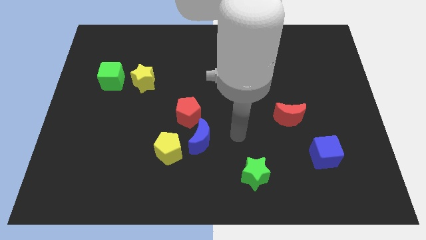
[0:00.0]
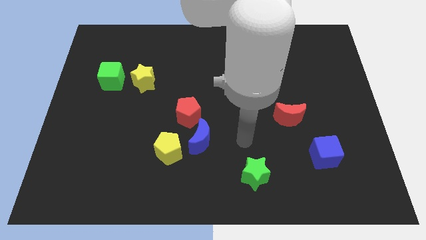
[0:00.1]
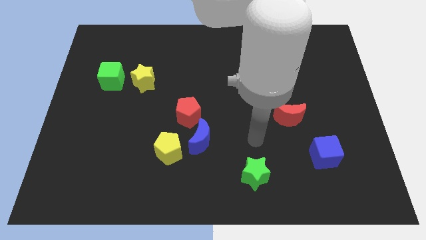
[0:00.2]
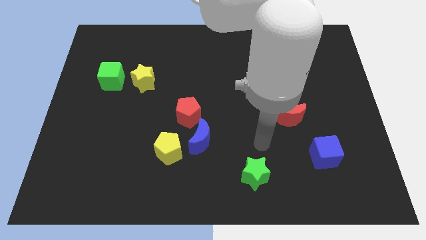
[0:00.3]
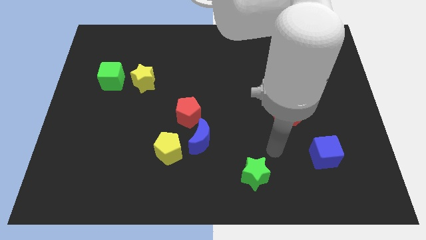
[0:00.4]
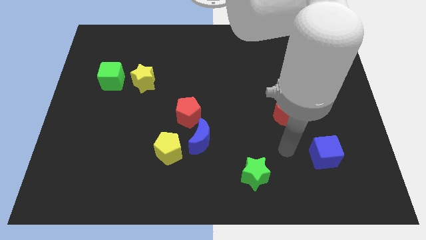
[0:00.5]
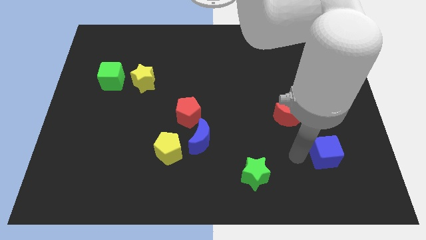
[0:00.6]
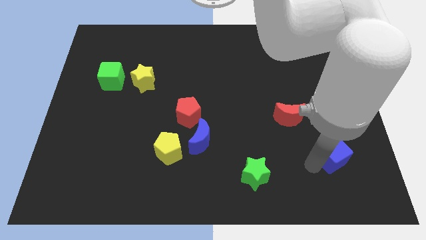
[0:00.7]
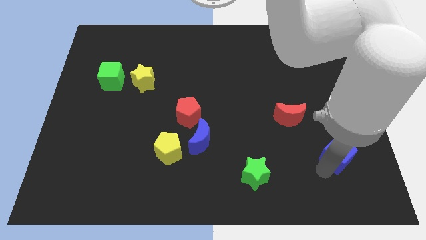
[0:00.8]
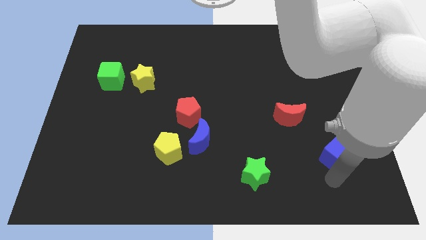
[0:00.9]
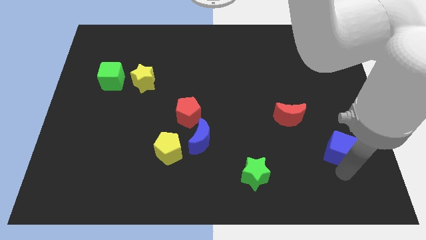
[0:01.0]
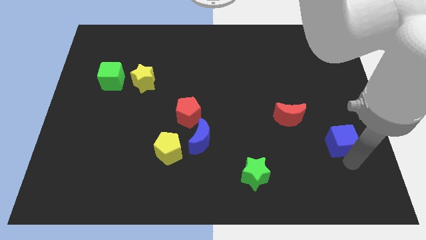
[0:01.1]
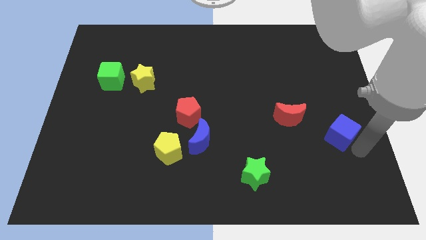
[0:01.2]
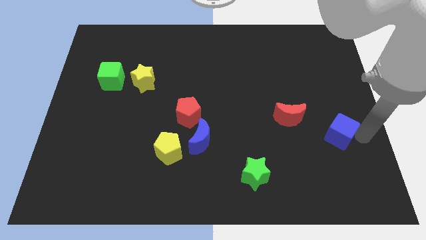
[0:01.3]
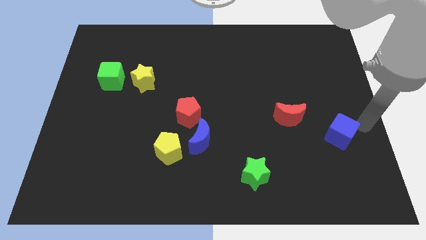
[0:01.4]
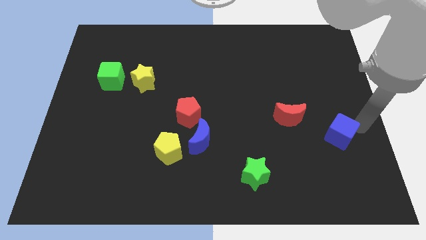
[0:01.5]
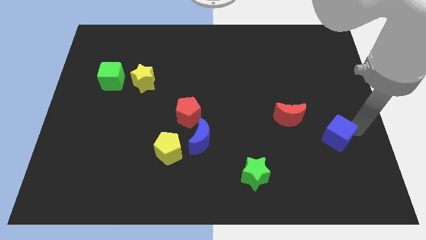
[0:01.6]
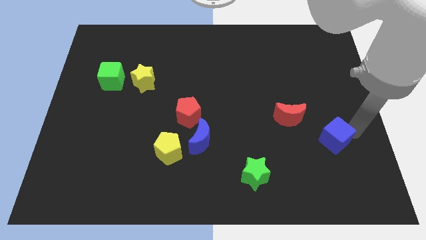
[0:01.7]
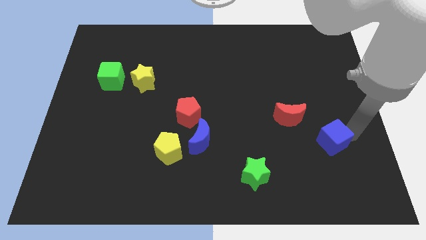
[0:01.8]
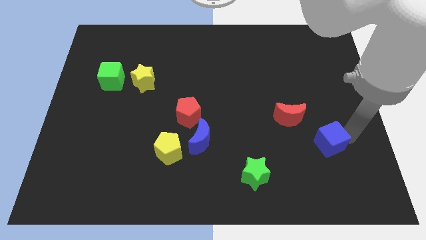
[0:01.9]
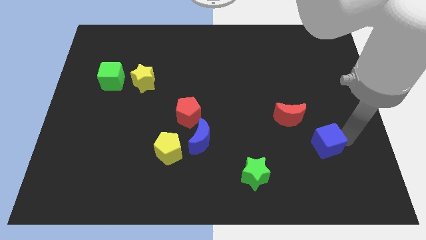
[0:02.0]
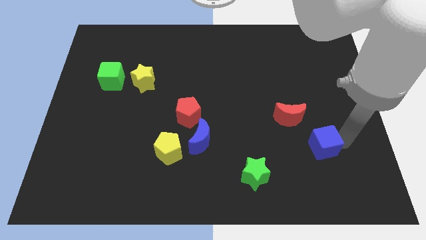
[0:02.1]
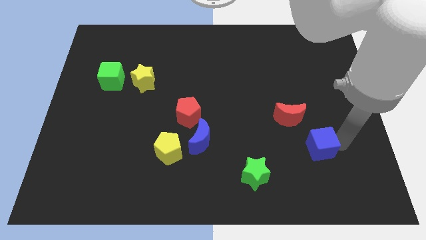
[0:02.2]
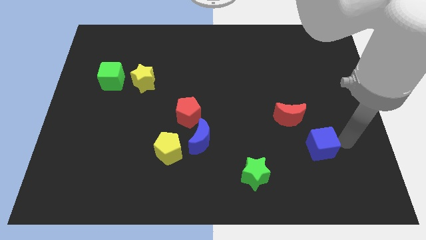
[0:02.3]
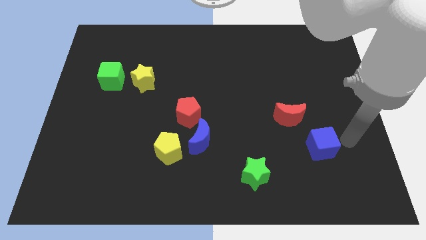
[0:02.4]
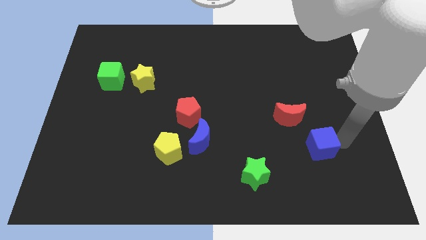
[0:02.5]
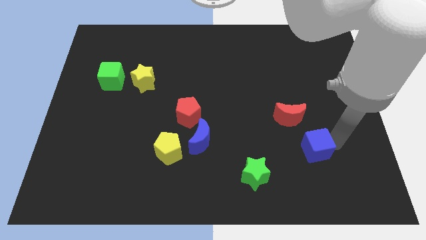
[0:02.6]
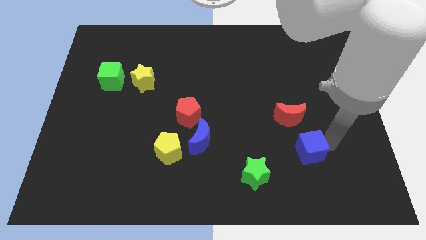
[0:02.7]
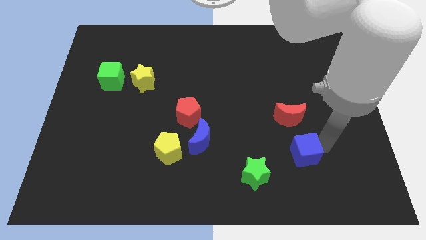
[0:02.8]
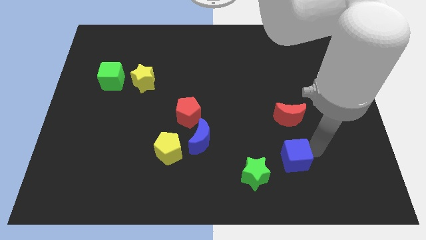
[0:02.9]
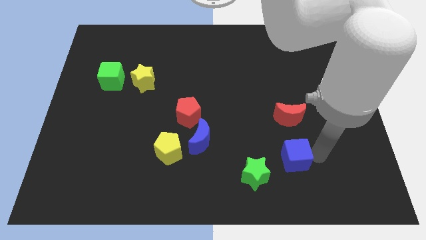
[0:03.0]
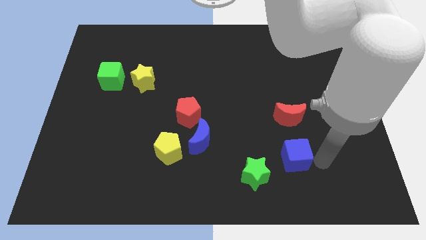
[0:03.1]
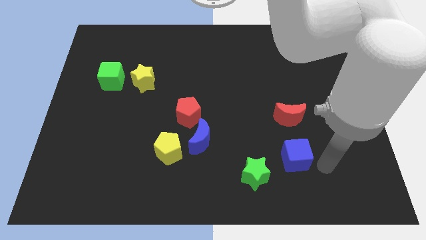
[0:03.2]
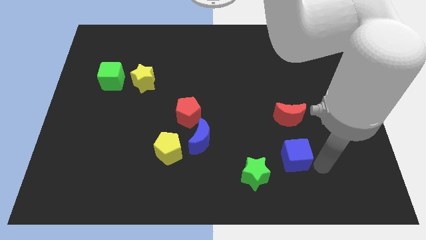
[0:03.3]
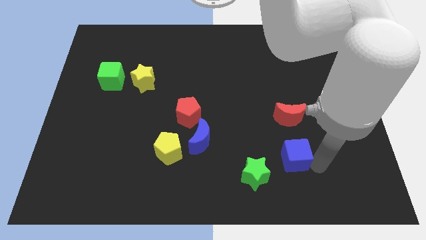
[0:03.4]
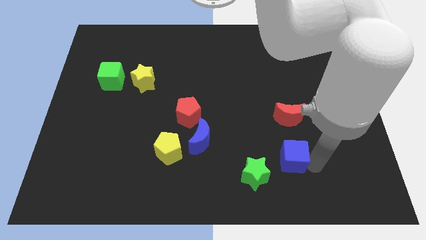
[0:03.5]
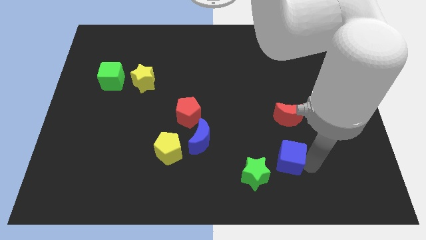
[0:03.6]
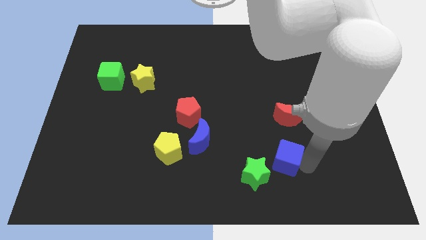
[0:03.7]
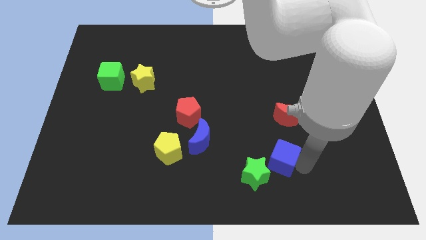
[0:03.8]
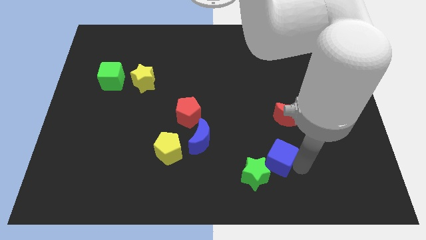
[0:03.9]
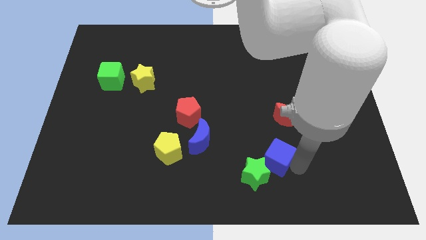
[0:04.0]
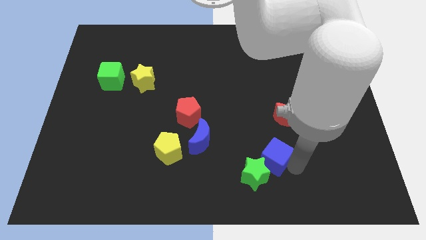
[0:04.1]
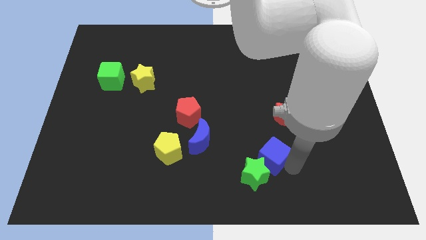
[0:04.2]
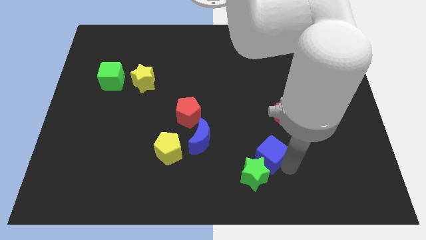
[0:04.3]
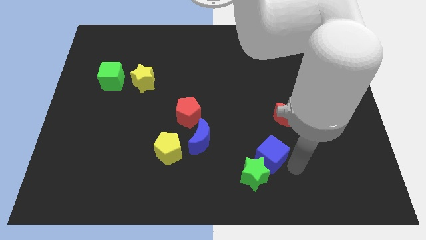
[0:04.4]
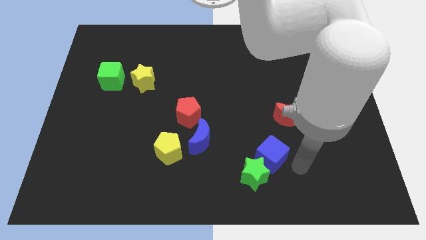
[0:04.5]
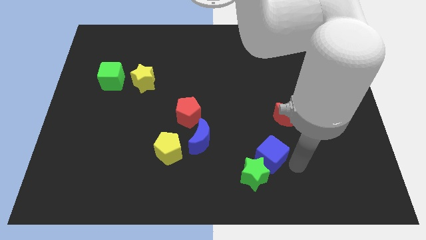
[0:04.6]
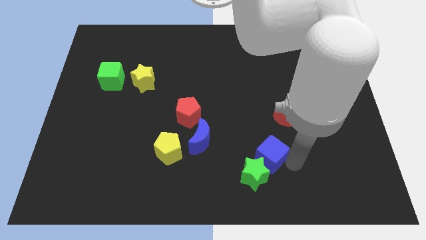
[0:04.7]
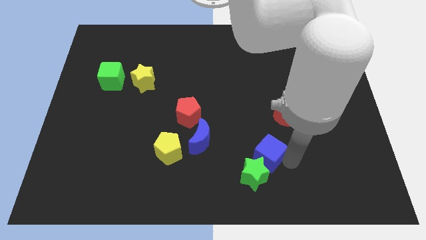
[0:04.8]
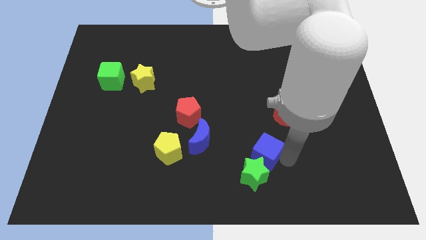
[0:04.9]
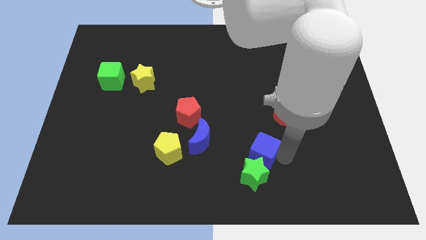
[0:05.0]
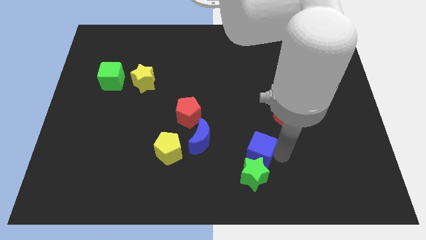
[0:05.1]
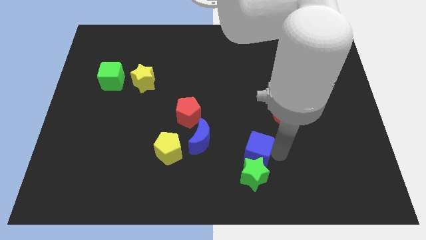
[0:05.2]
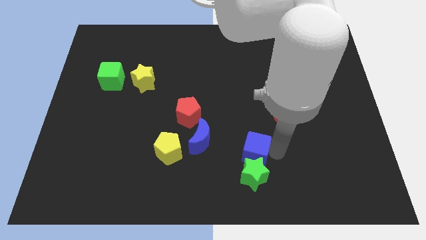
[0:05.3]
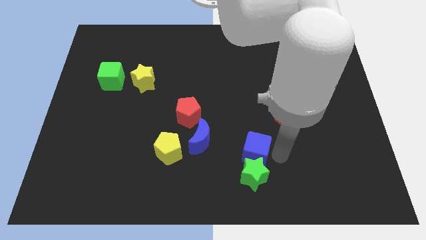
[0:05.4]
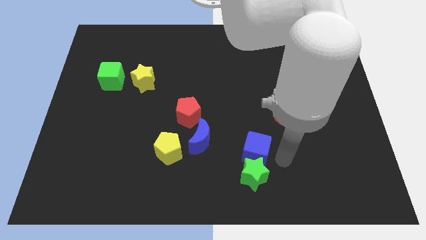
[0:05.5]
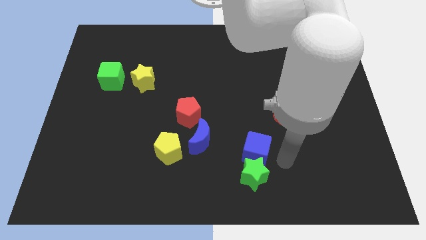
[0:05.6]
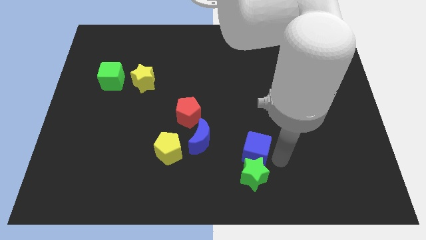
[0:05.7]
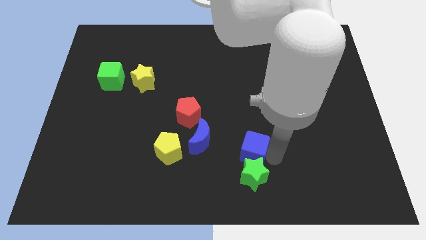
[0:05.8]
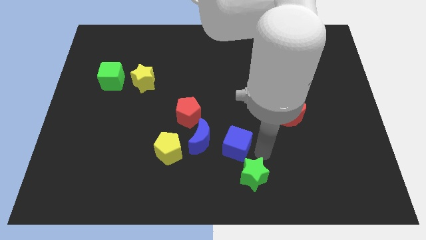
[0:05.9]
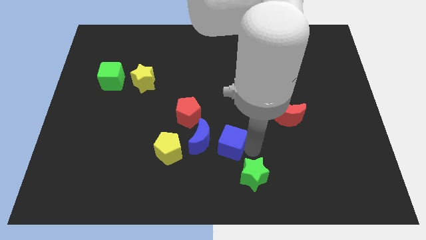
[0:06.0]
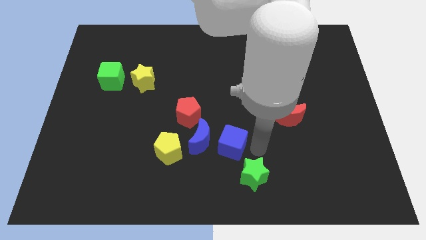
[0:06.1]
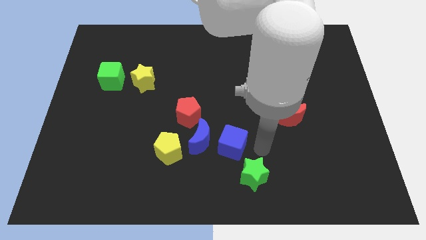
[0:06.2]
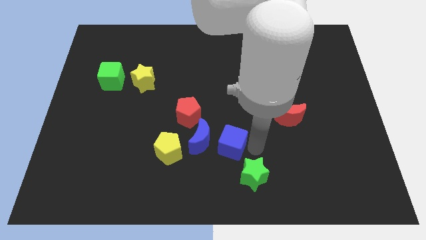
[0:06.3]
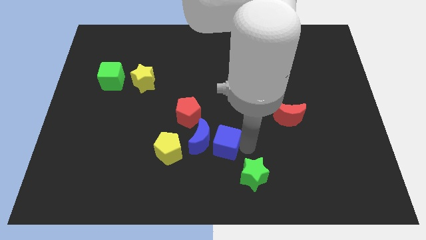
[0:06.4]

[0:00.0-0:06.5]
slide the blue cube to the blue moon

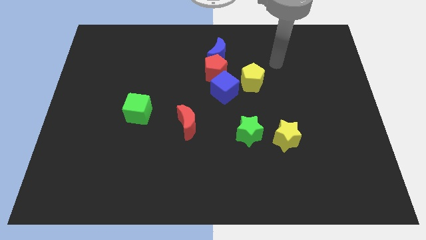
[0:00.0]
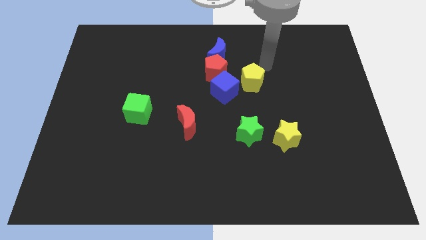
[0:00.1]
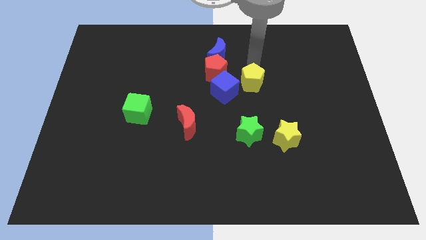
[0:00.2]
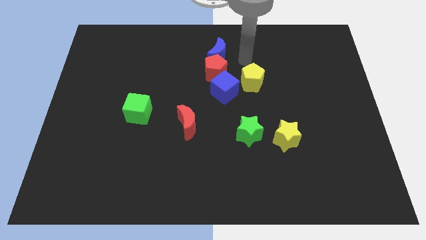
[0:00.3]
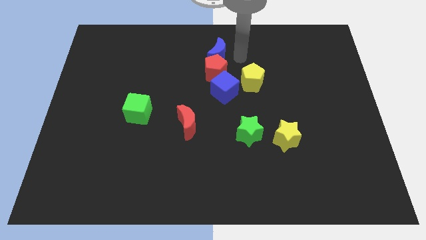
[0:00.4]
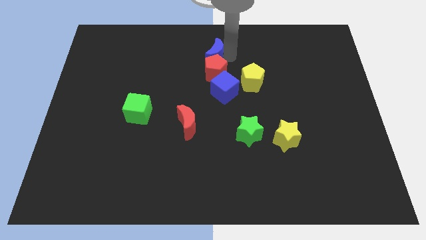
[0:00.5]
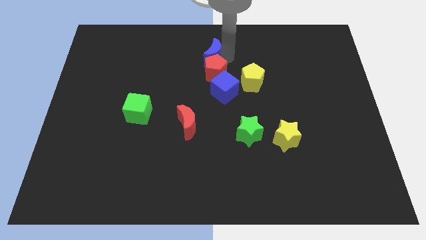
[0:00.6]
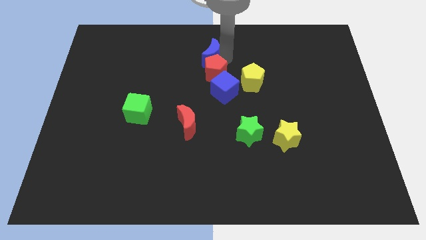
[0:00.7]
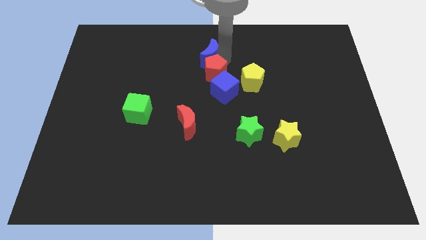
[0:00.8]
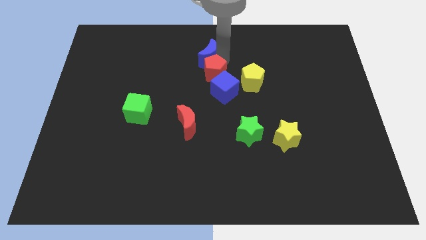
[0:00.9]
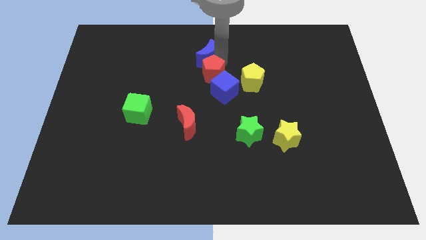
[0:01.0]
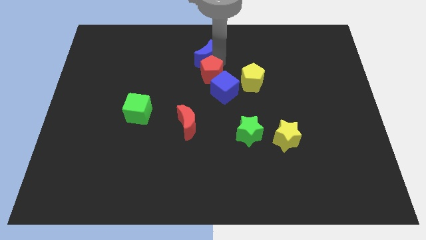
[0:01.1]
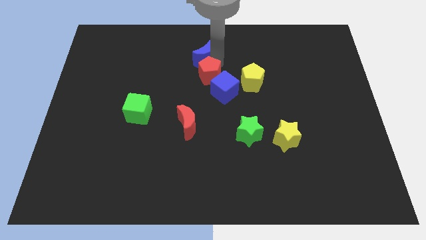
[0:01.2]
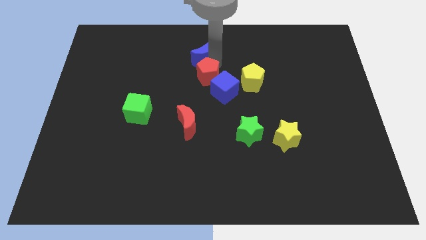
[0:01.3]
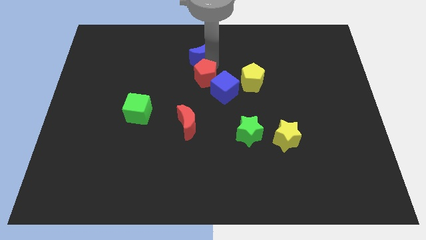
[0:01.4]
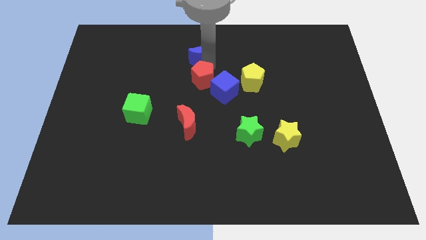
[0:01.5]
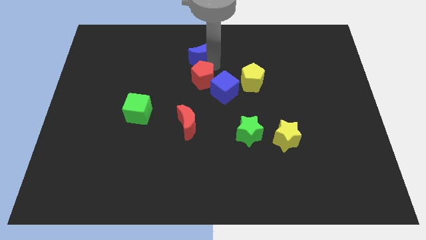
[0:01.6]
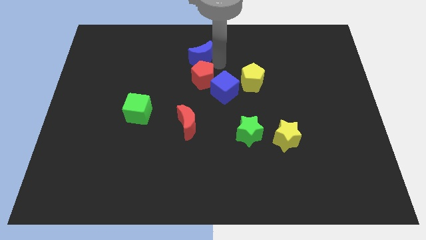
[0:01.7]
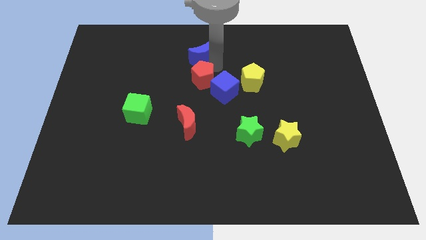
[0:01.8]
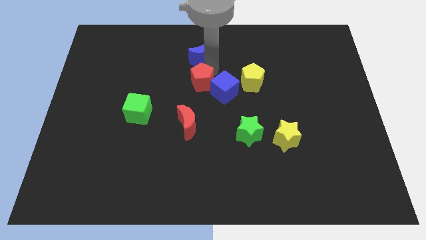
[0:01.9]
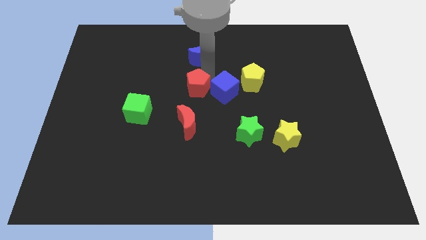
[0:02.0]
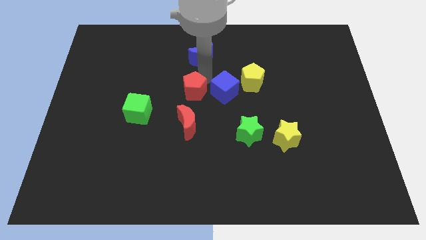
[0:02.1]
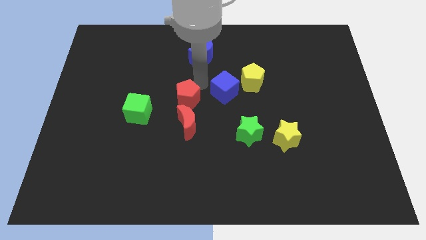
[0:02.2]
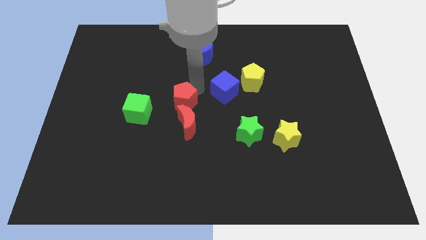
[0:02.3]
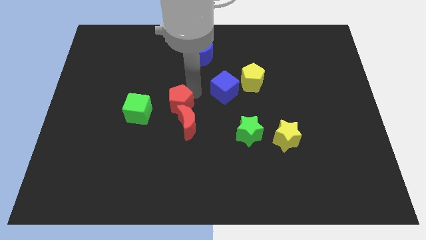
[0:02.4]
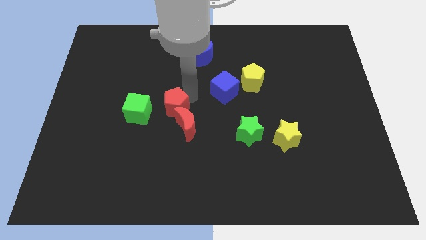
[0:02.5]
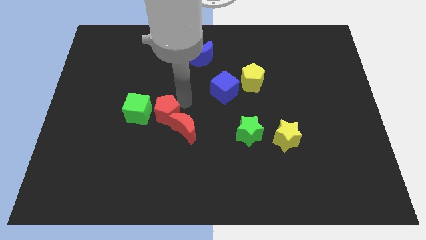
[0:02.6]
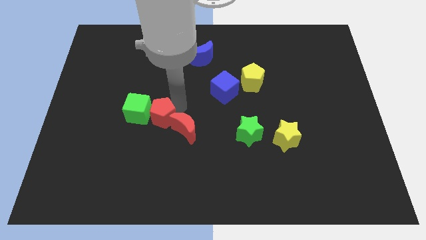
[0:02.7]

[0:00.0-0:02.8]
slide the red pentagon next to the green cube
